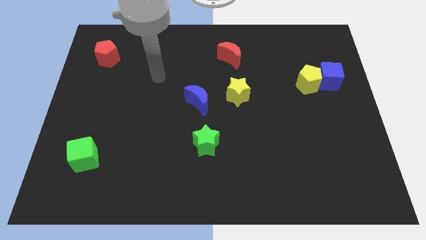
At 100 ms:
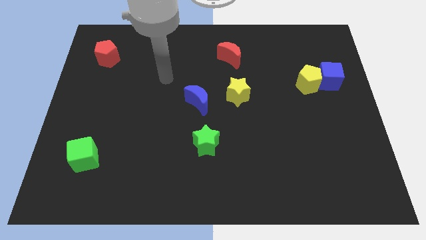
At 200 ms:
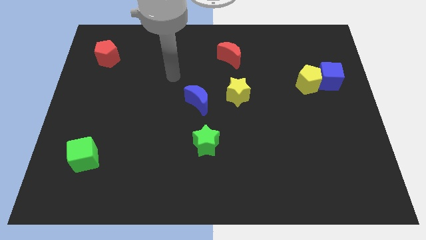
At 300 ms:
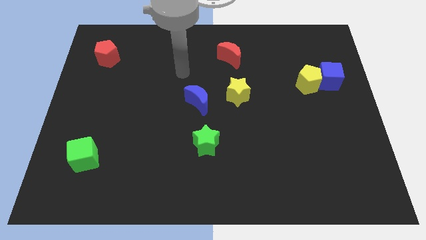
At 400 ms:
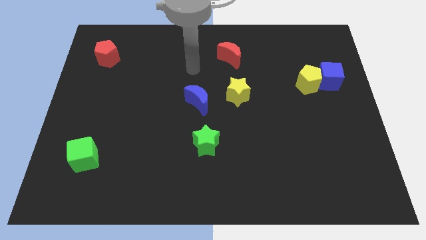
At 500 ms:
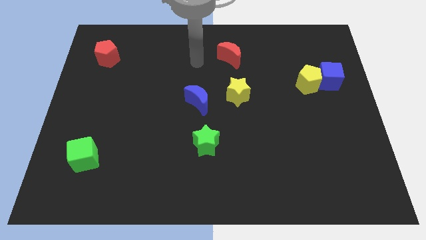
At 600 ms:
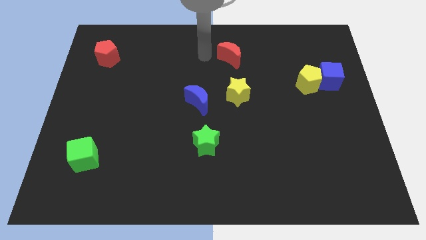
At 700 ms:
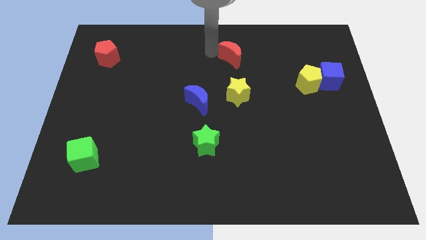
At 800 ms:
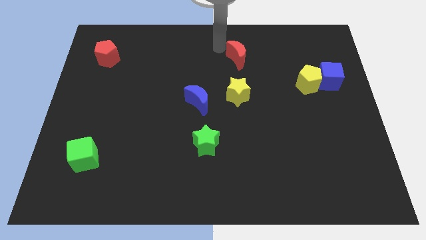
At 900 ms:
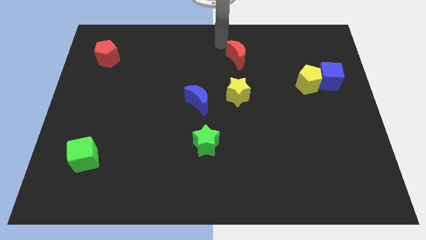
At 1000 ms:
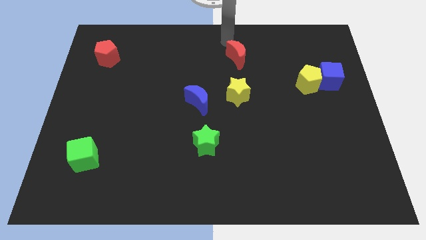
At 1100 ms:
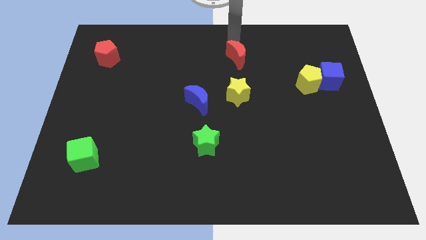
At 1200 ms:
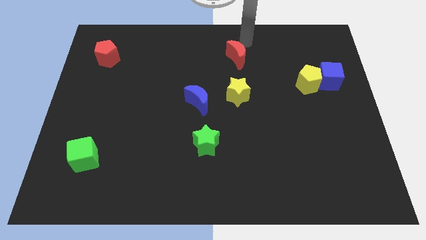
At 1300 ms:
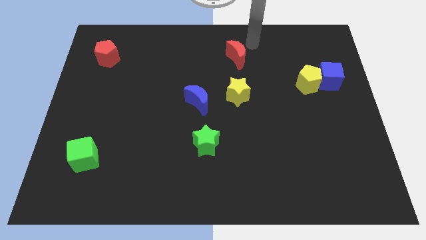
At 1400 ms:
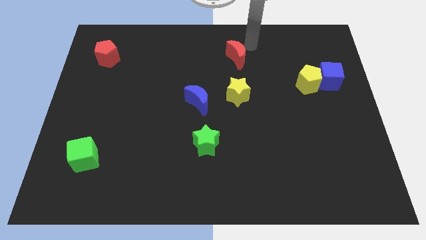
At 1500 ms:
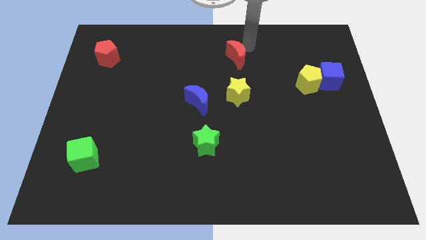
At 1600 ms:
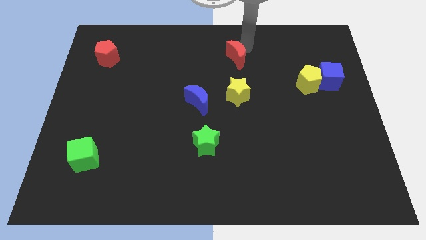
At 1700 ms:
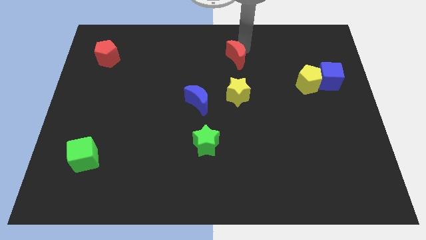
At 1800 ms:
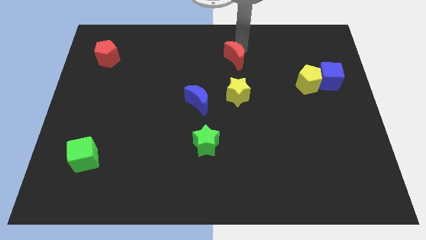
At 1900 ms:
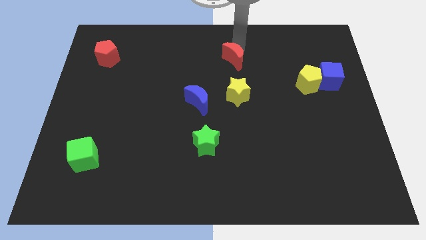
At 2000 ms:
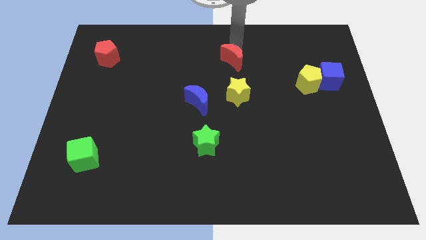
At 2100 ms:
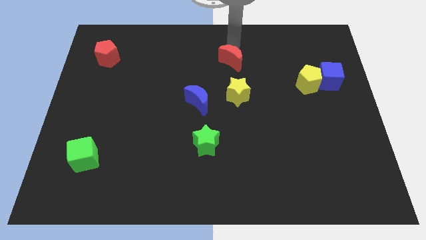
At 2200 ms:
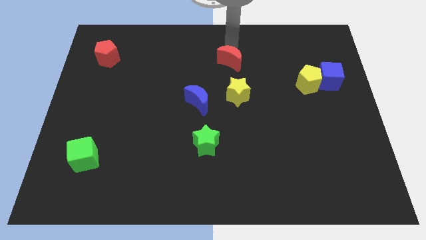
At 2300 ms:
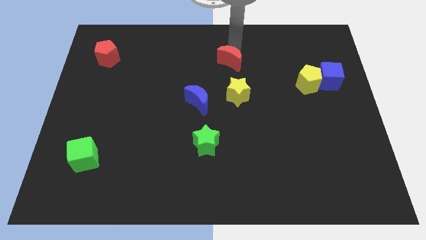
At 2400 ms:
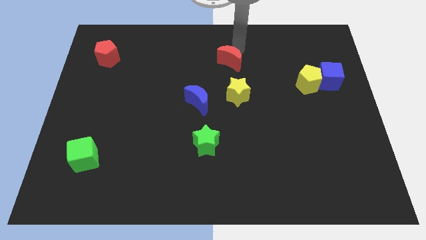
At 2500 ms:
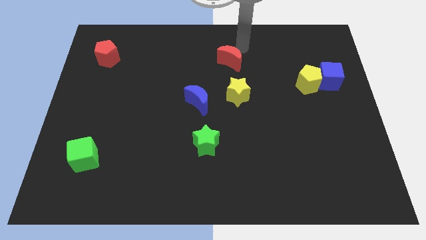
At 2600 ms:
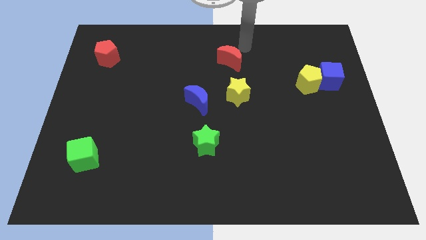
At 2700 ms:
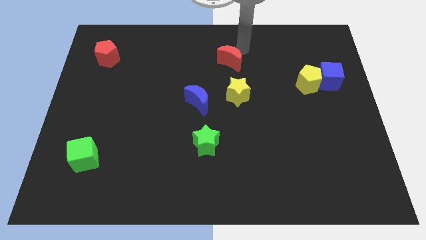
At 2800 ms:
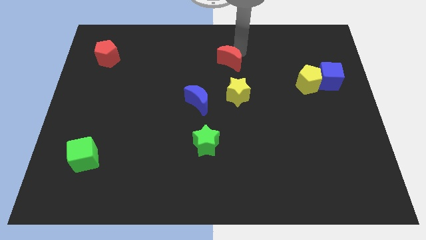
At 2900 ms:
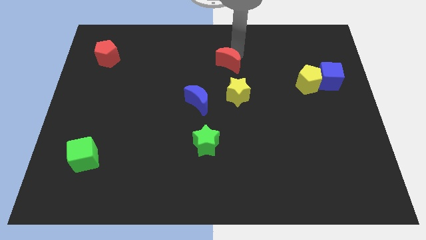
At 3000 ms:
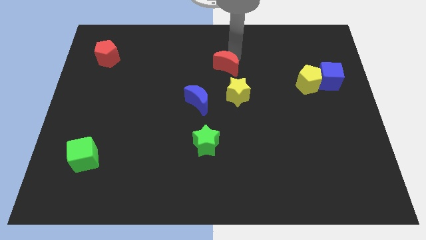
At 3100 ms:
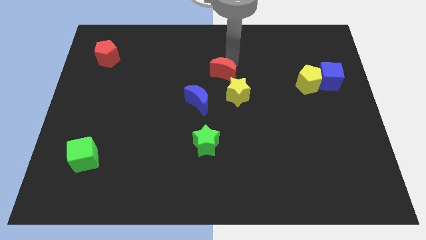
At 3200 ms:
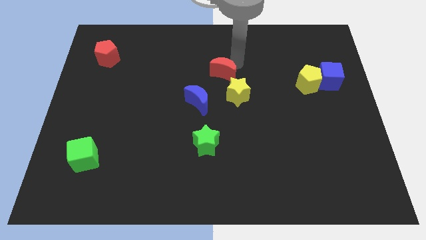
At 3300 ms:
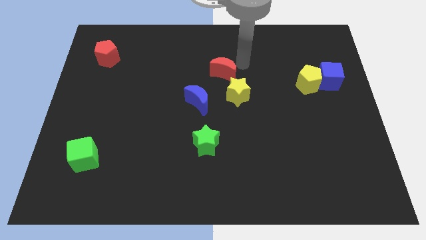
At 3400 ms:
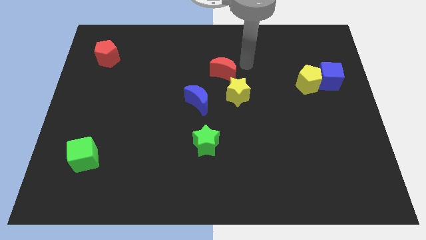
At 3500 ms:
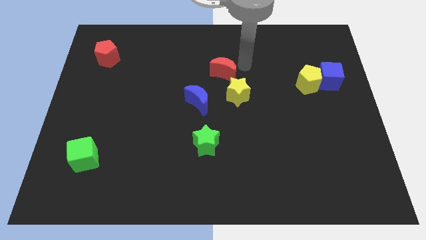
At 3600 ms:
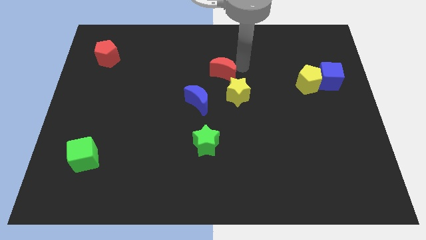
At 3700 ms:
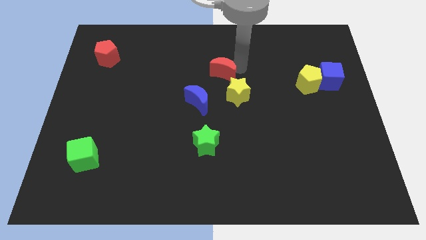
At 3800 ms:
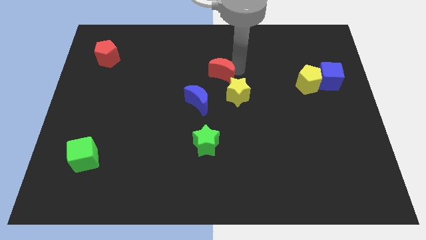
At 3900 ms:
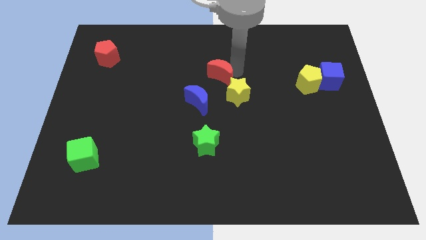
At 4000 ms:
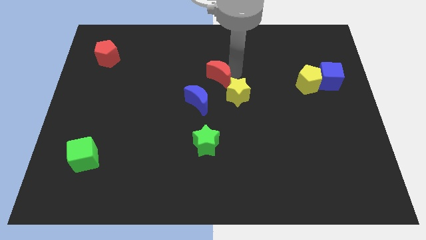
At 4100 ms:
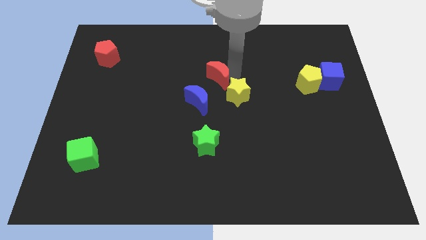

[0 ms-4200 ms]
move the red moon a little downwards and left diagonally

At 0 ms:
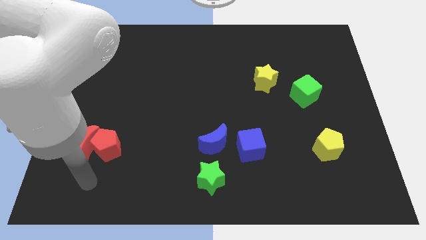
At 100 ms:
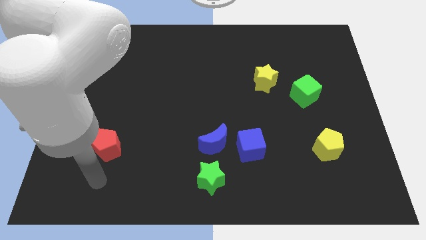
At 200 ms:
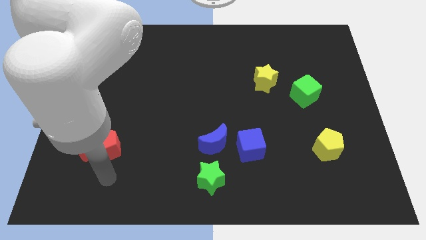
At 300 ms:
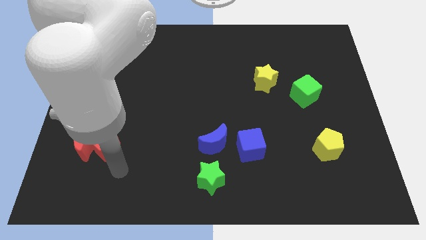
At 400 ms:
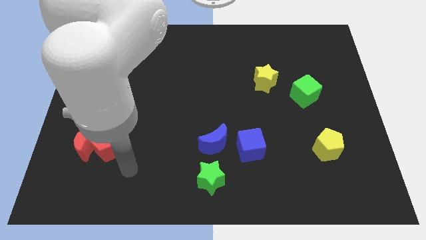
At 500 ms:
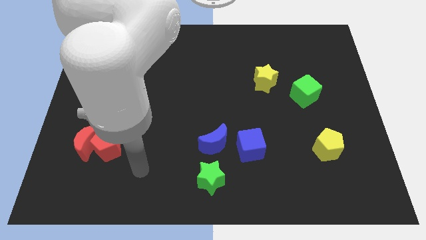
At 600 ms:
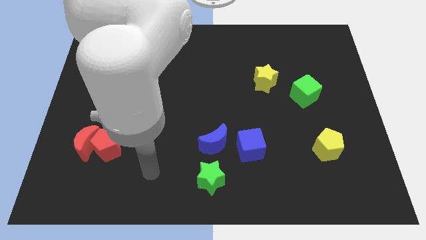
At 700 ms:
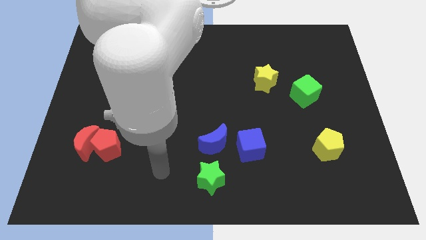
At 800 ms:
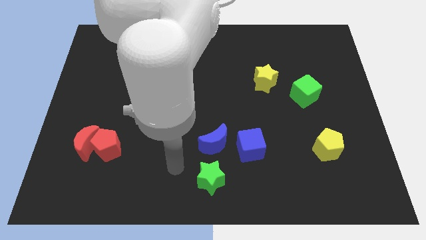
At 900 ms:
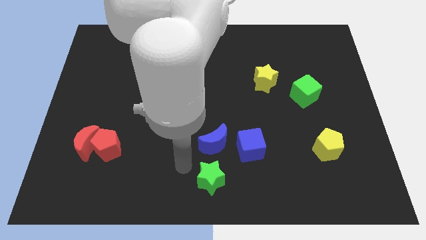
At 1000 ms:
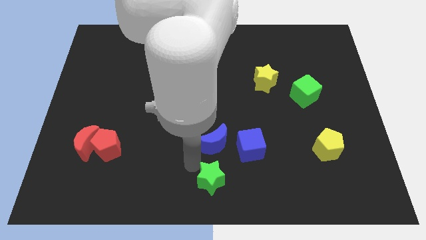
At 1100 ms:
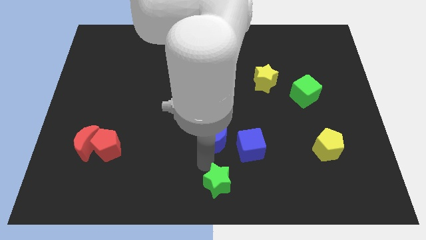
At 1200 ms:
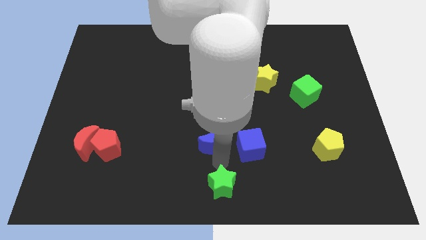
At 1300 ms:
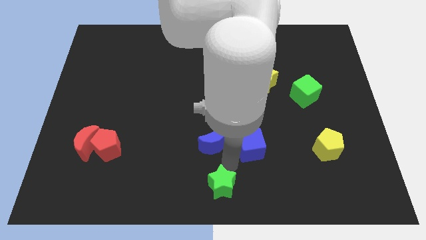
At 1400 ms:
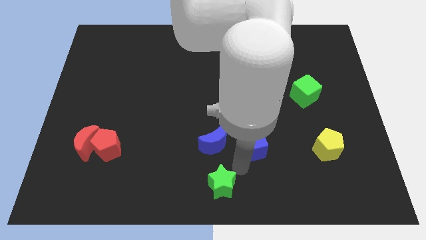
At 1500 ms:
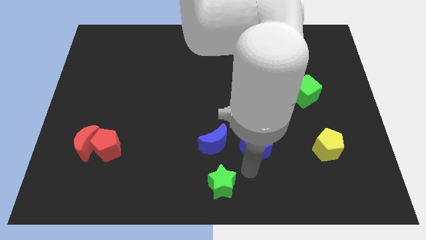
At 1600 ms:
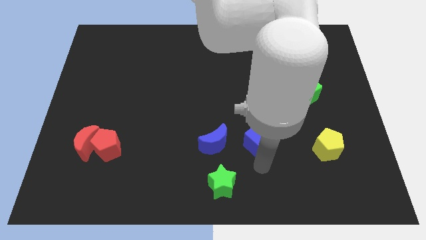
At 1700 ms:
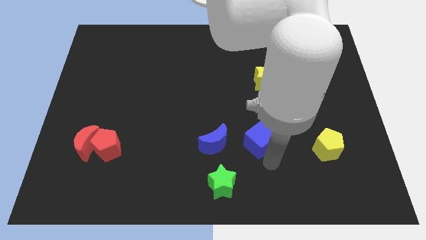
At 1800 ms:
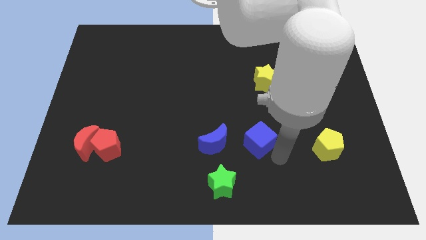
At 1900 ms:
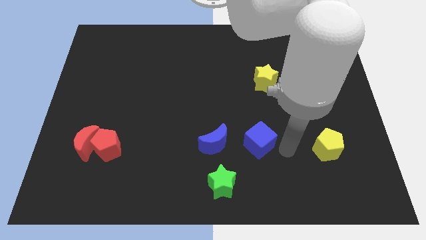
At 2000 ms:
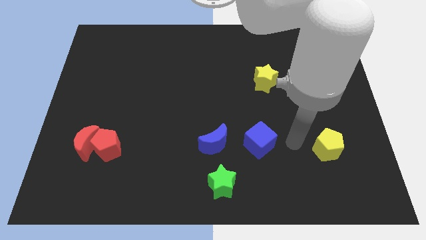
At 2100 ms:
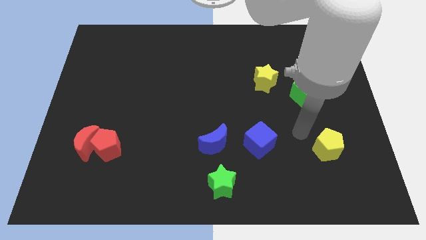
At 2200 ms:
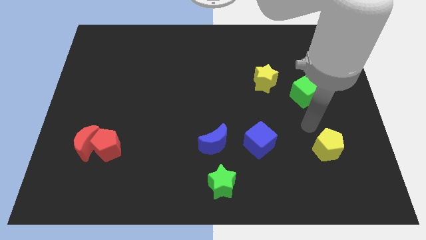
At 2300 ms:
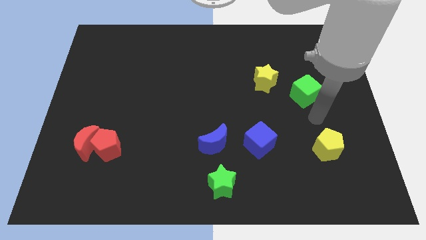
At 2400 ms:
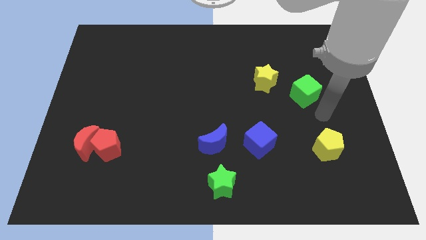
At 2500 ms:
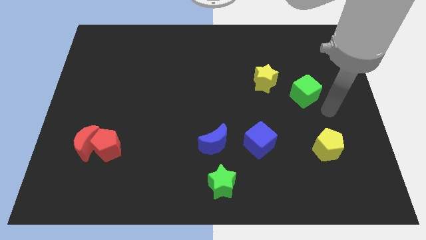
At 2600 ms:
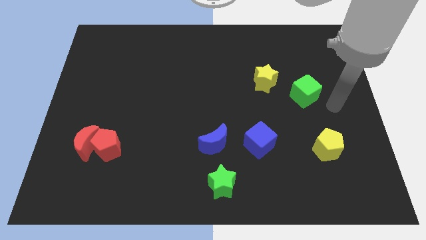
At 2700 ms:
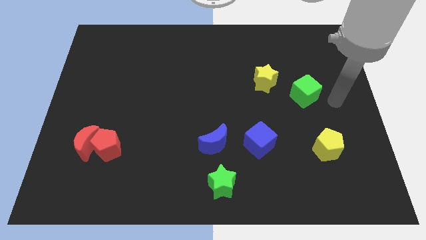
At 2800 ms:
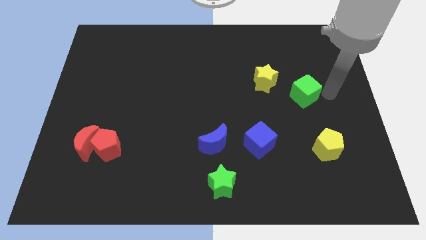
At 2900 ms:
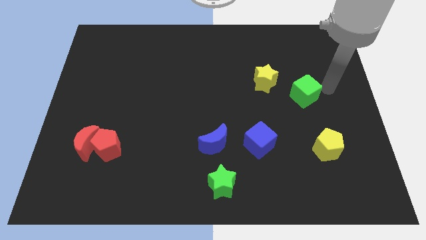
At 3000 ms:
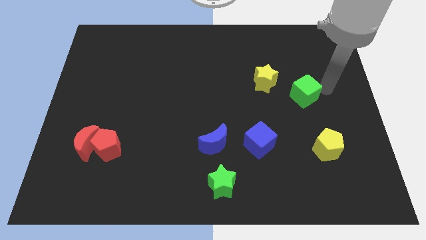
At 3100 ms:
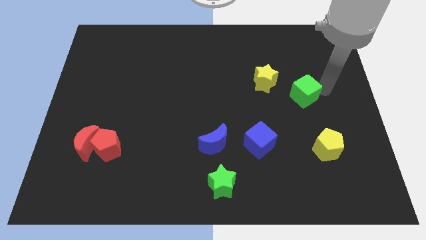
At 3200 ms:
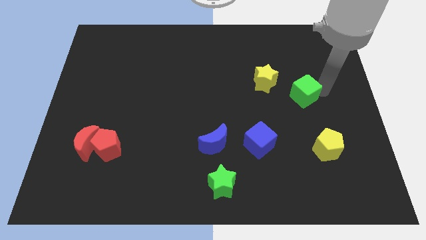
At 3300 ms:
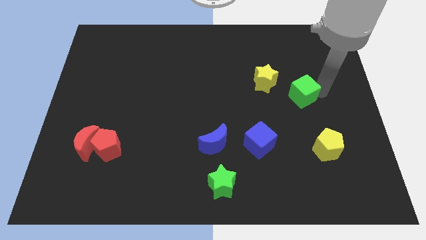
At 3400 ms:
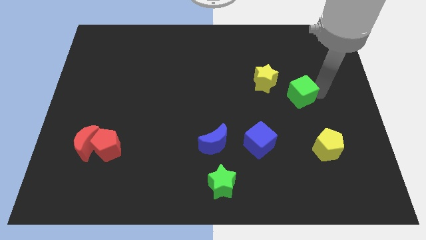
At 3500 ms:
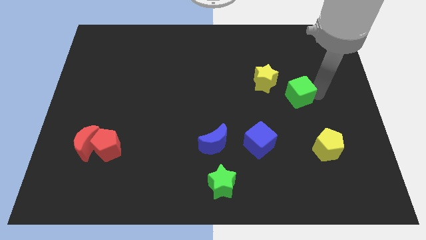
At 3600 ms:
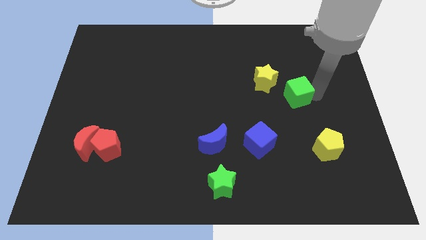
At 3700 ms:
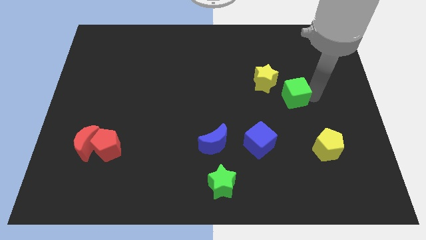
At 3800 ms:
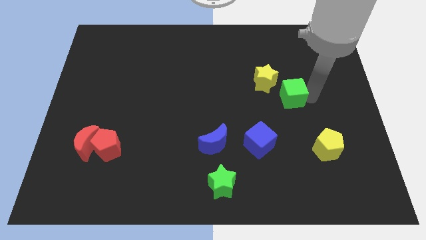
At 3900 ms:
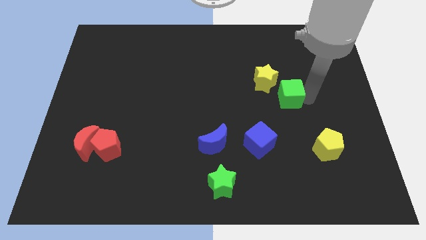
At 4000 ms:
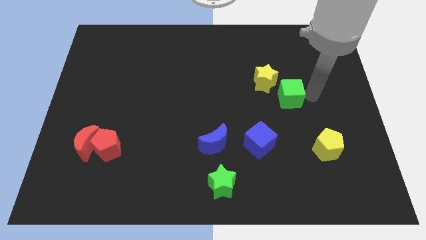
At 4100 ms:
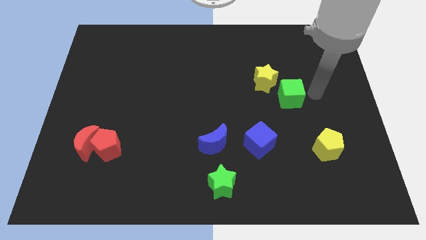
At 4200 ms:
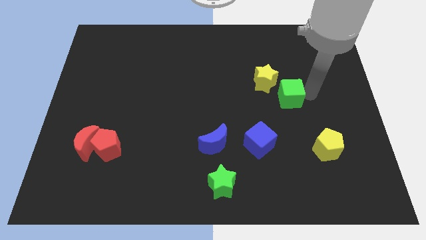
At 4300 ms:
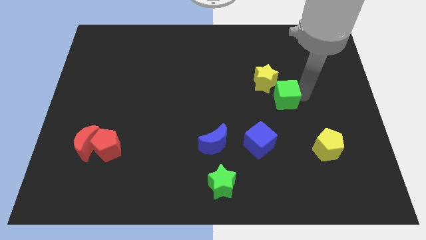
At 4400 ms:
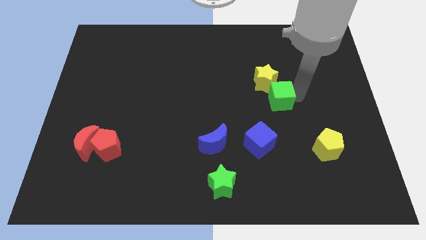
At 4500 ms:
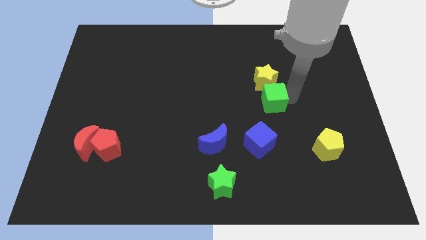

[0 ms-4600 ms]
slide the green cube slightly left
